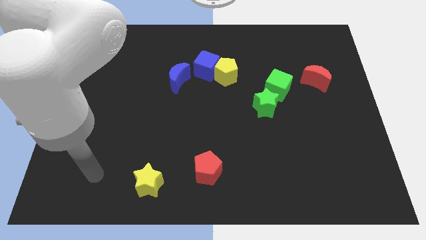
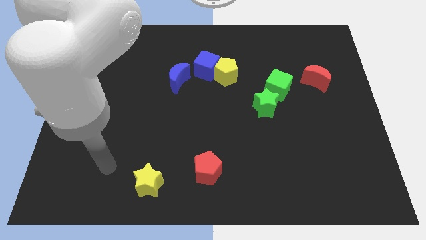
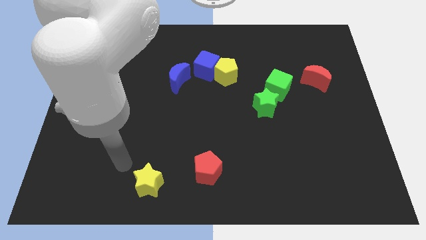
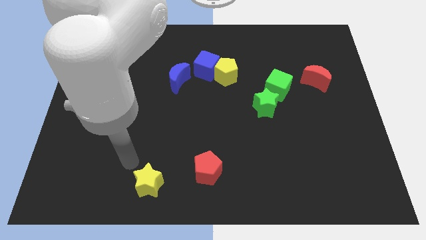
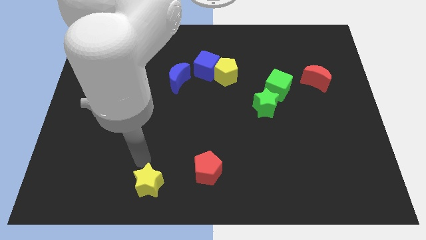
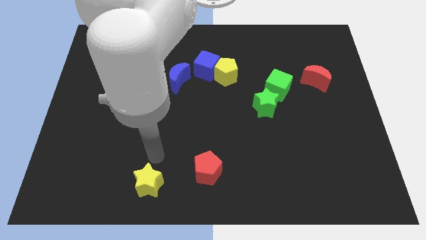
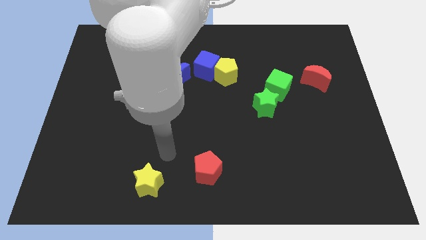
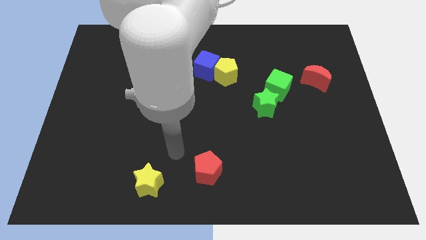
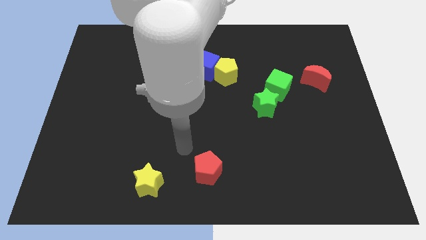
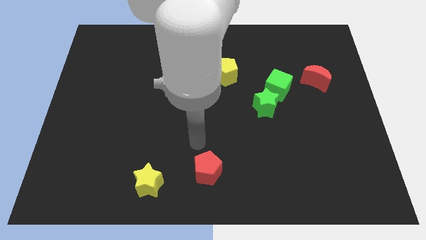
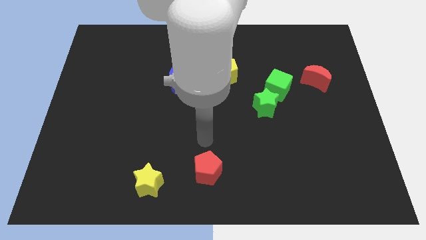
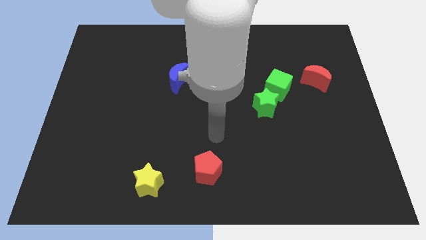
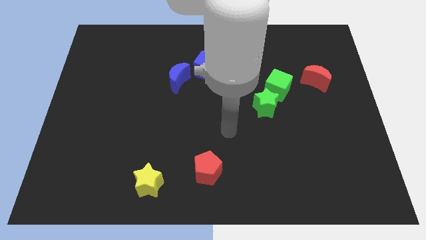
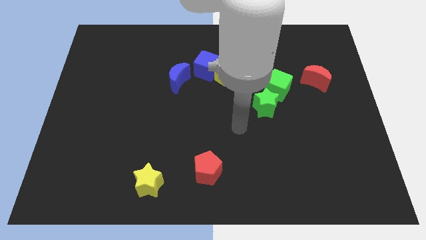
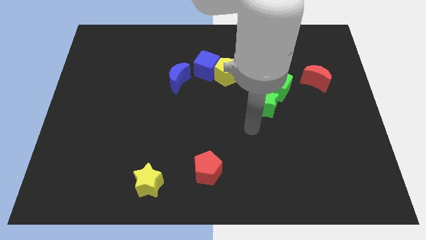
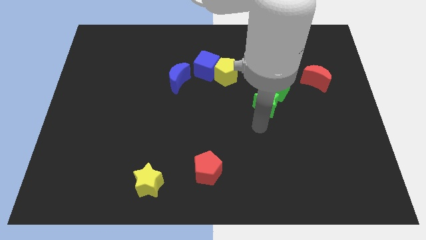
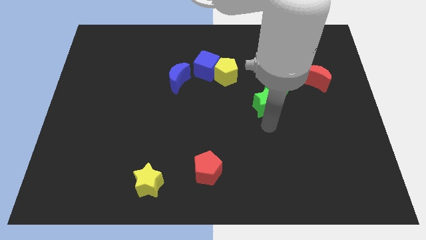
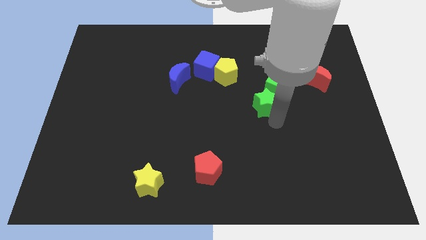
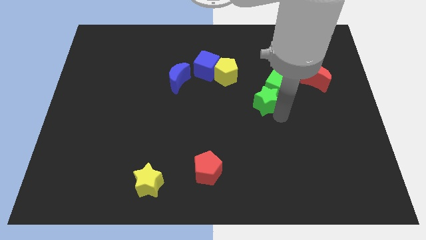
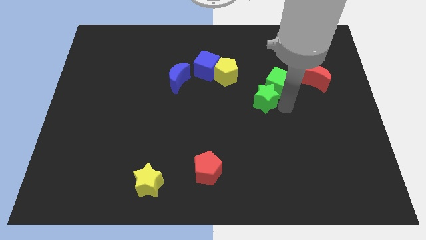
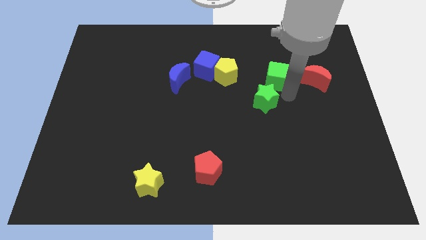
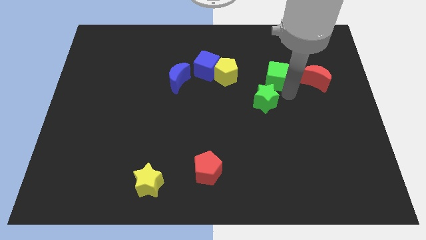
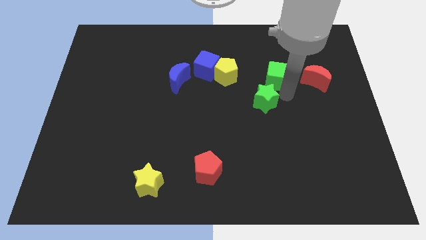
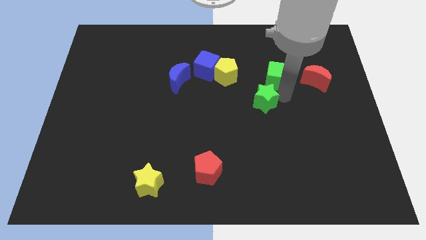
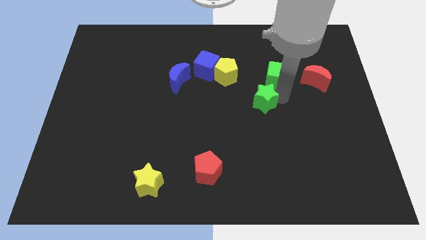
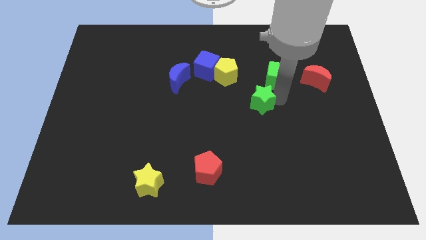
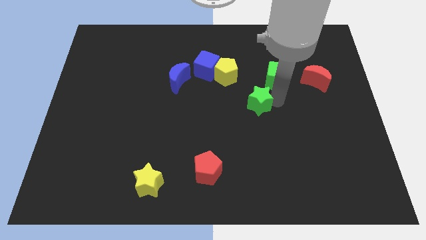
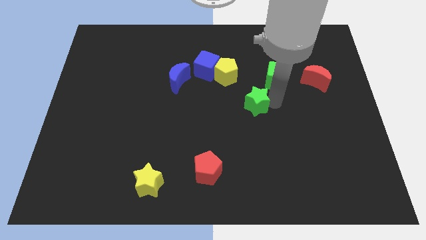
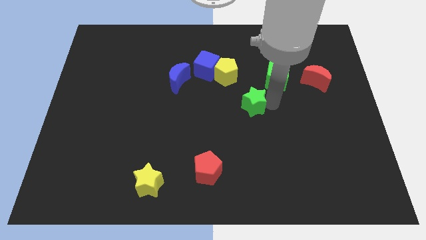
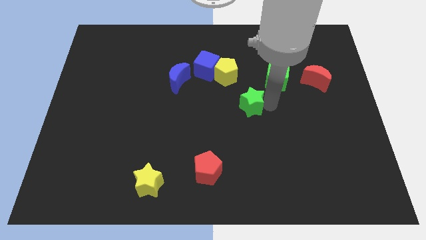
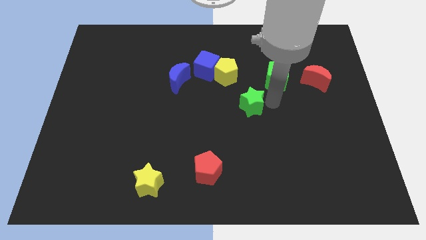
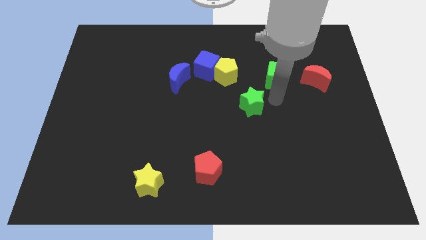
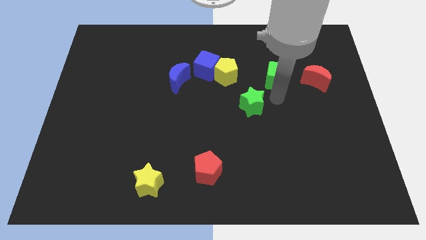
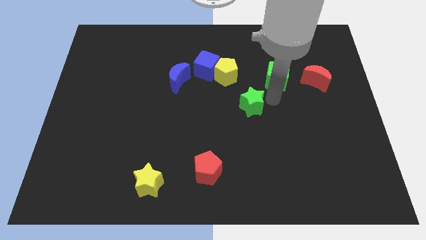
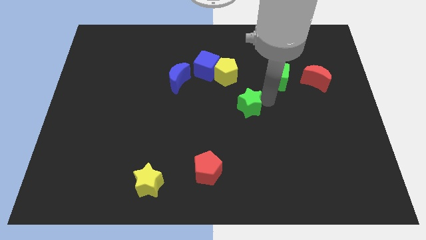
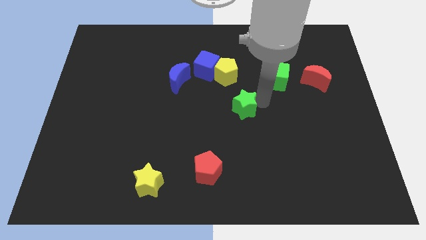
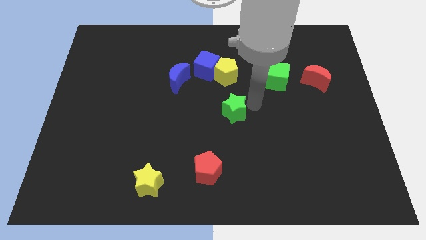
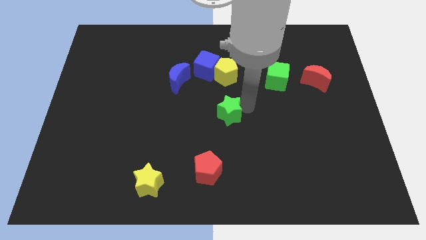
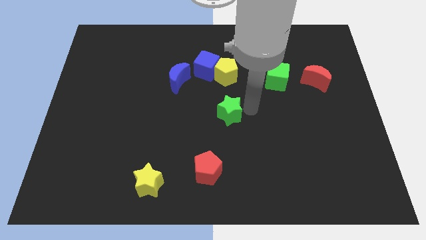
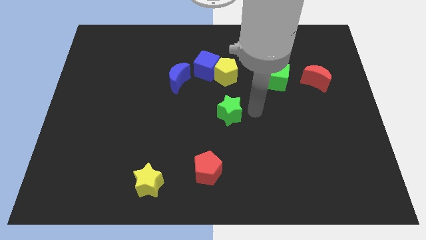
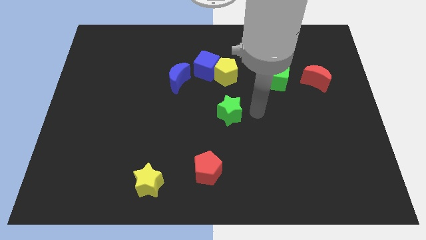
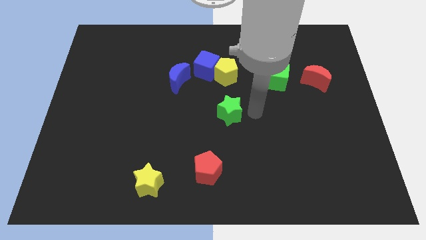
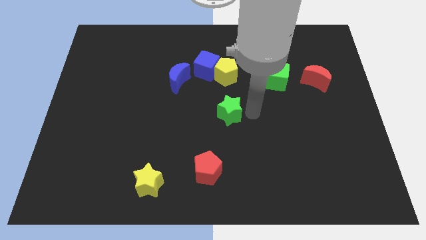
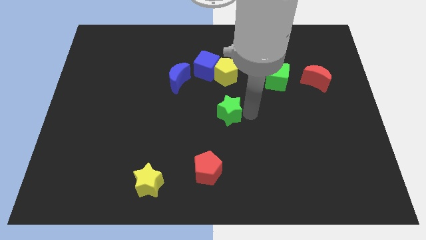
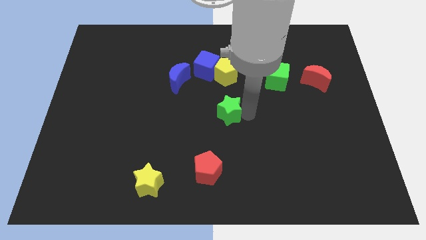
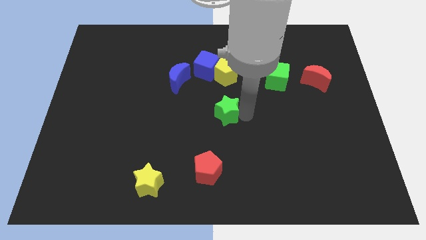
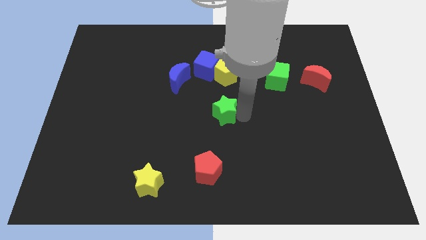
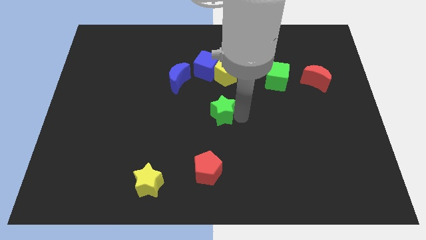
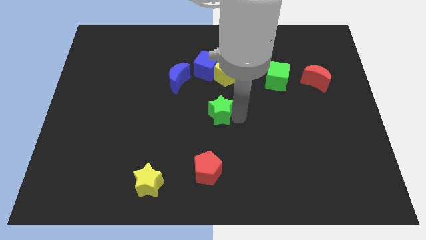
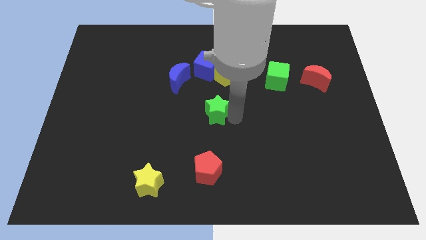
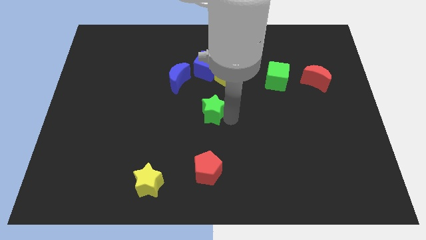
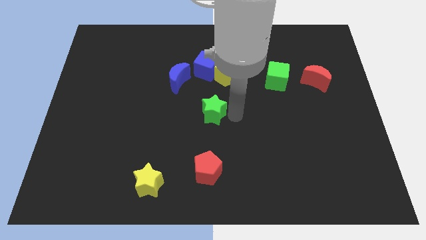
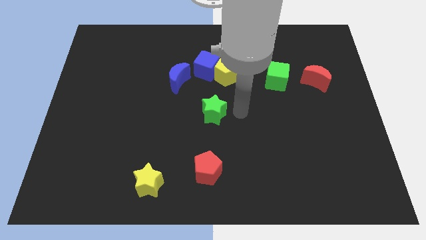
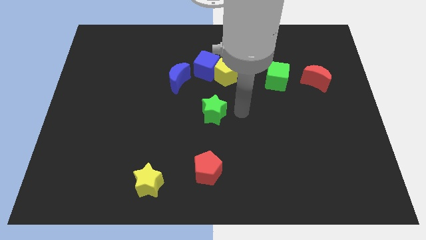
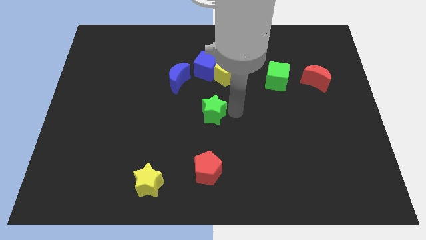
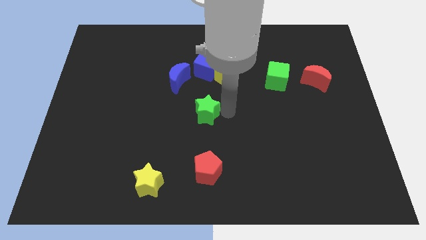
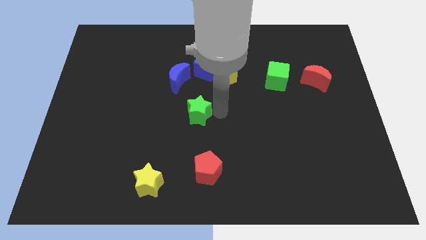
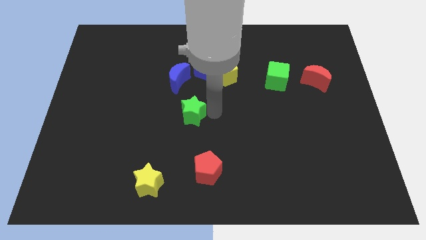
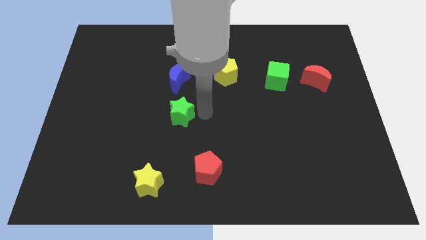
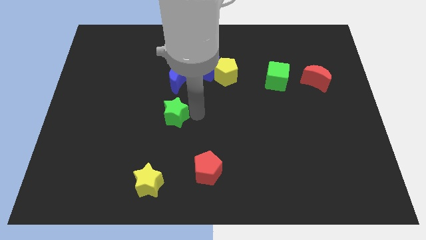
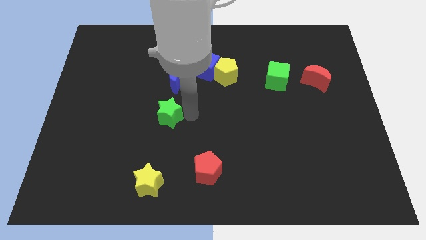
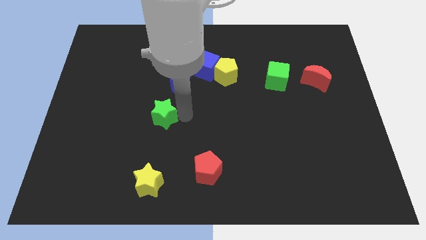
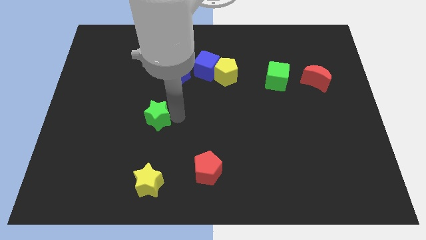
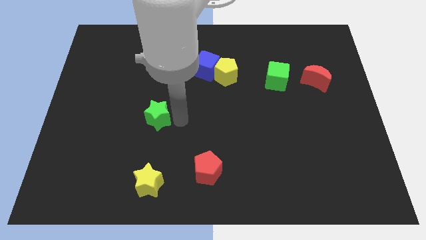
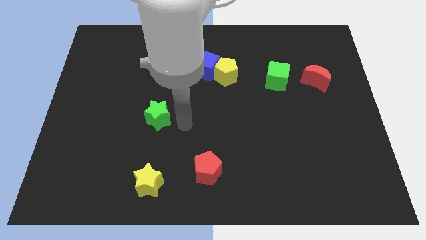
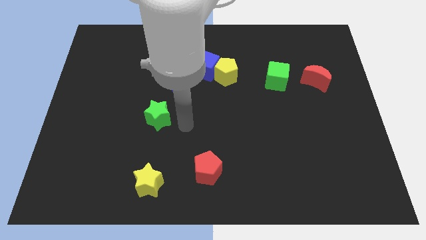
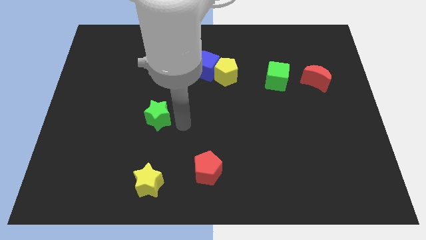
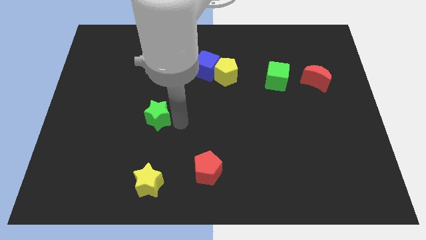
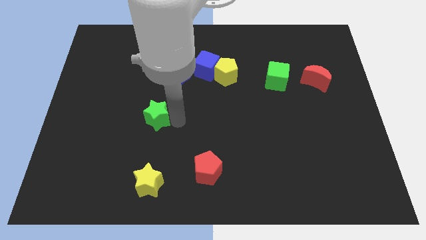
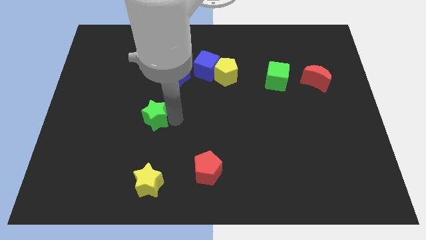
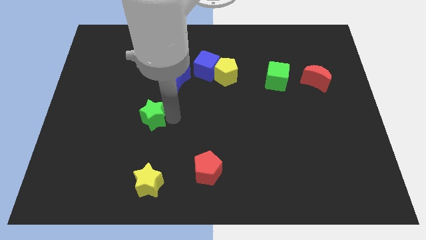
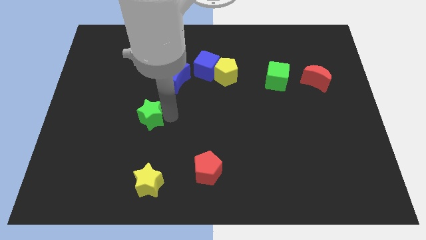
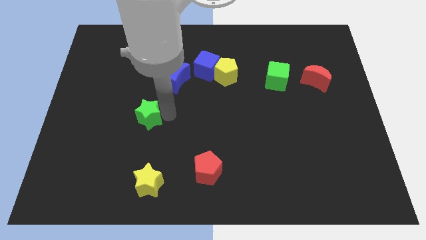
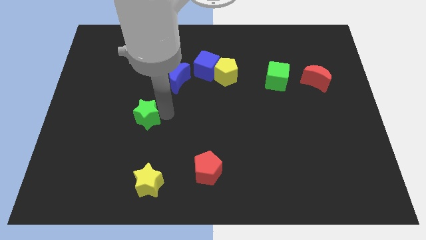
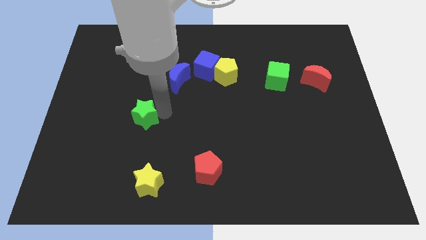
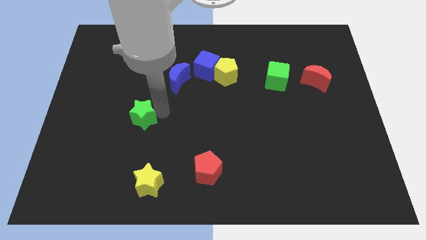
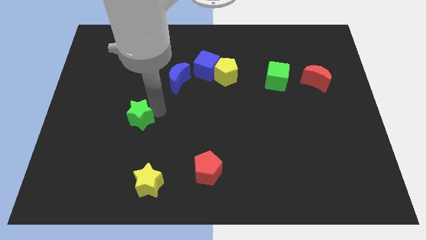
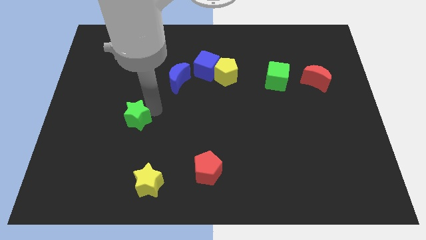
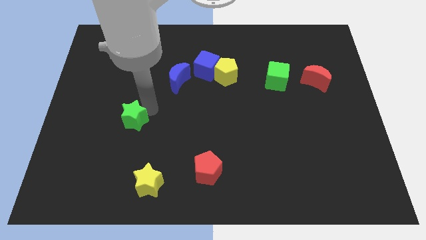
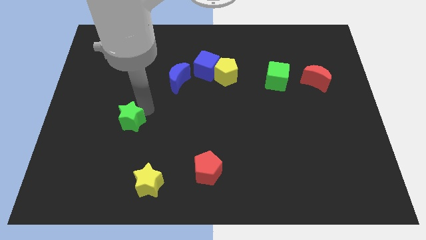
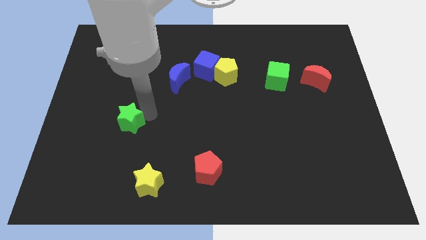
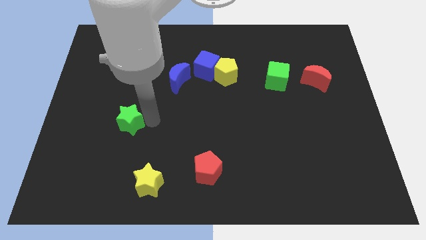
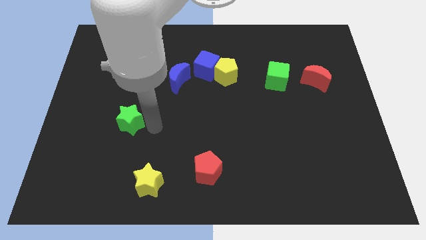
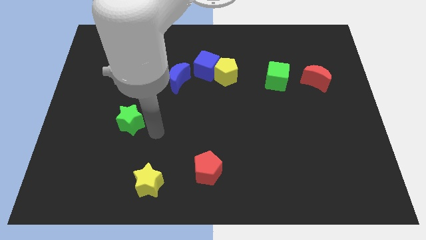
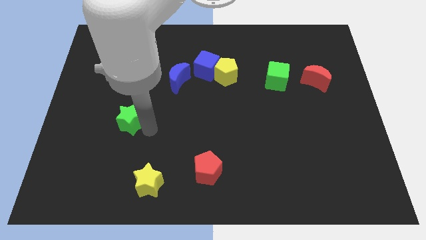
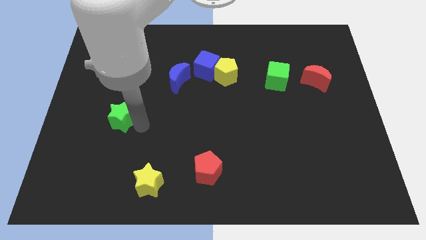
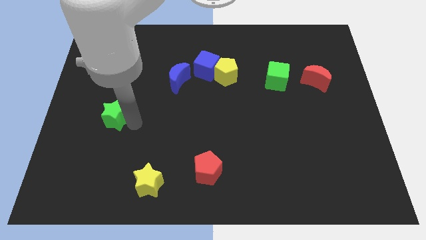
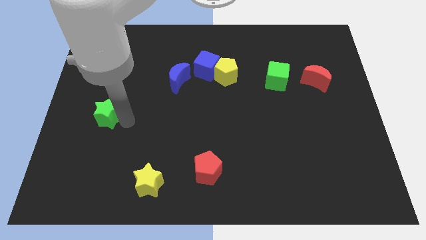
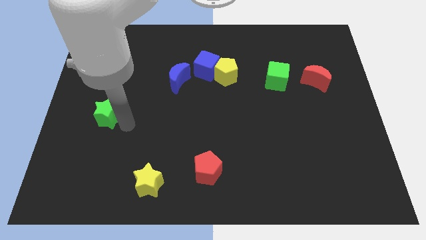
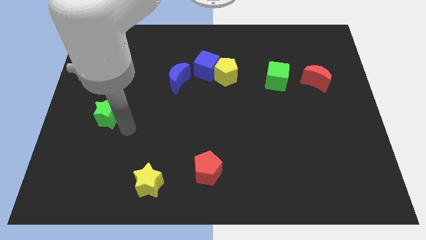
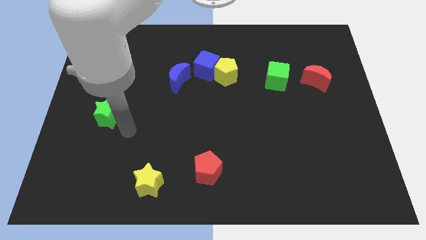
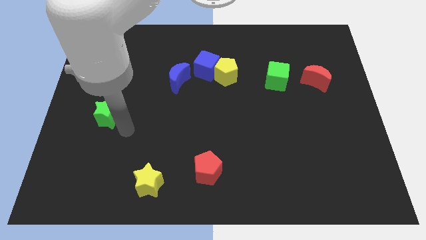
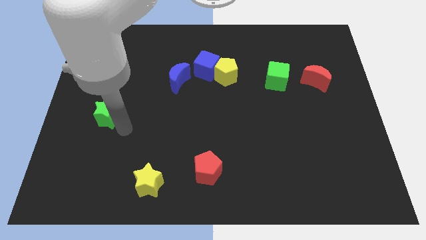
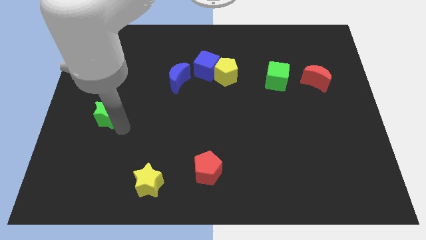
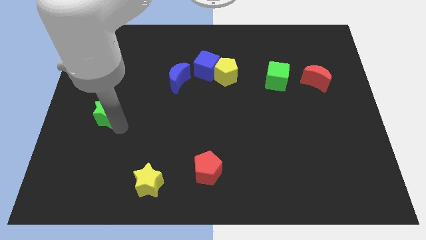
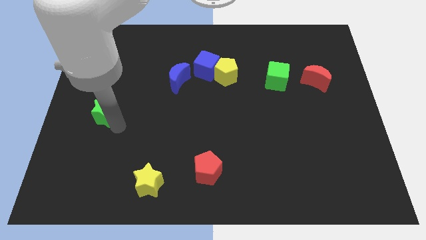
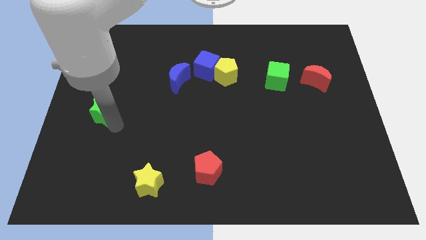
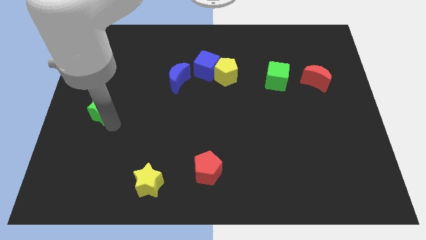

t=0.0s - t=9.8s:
move the green star to the left side of the board
